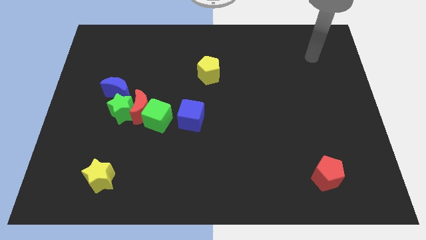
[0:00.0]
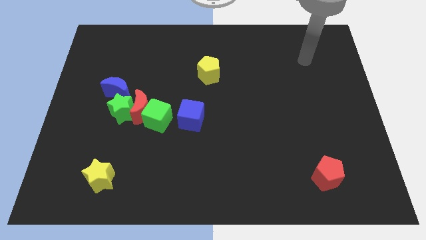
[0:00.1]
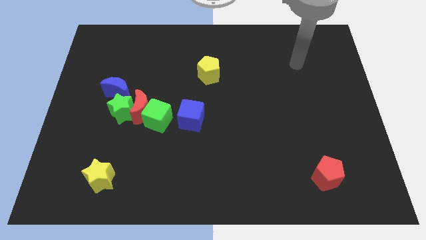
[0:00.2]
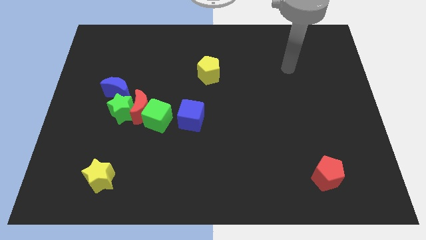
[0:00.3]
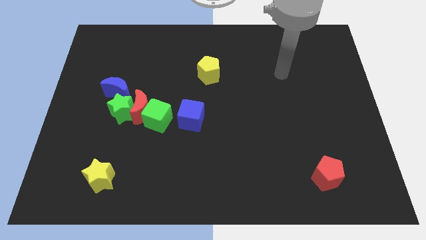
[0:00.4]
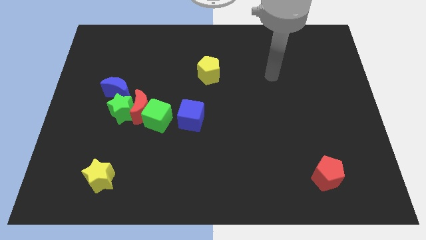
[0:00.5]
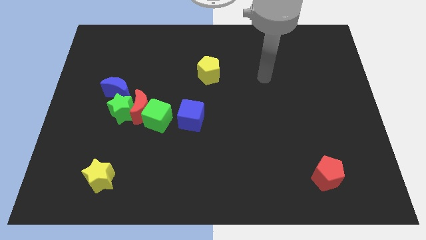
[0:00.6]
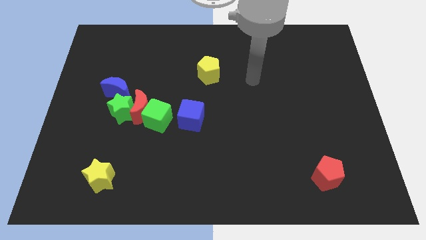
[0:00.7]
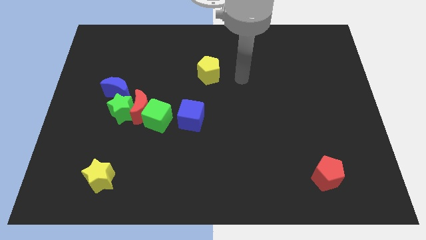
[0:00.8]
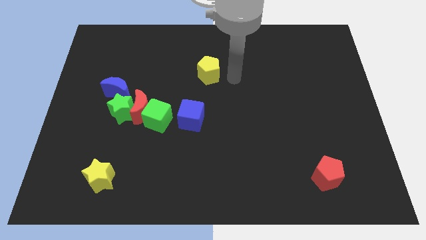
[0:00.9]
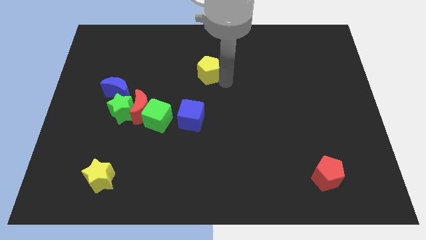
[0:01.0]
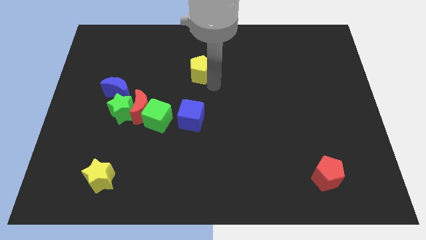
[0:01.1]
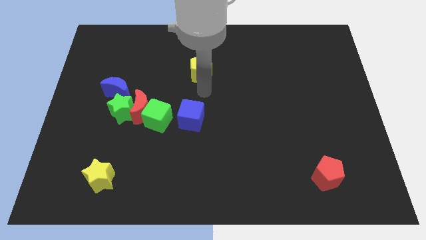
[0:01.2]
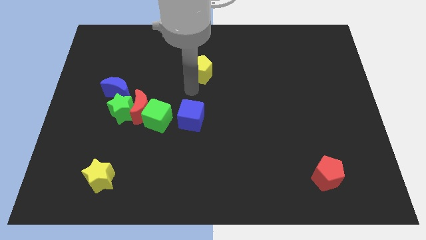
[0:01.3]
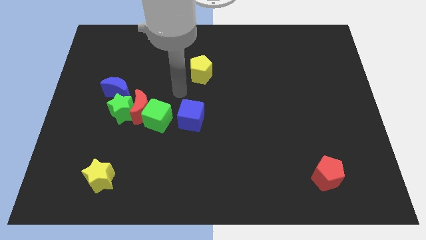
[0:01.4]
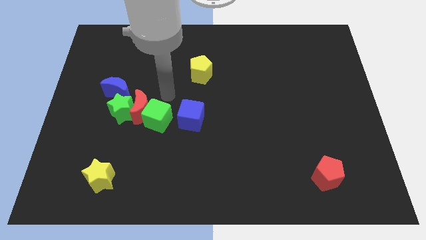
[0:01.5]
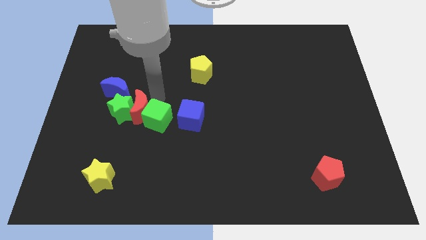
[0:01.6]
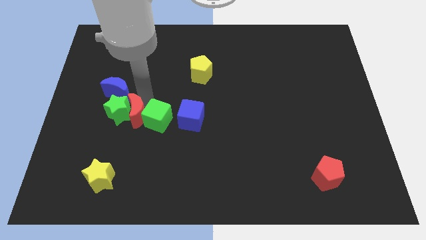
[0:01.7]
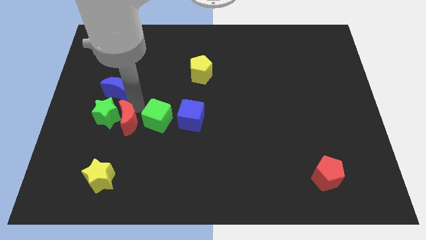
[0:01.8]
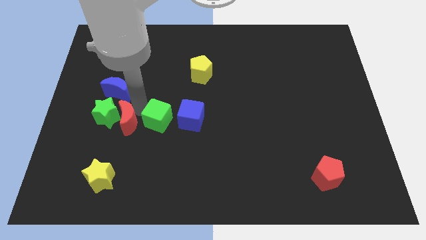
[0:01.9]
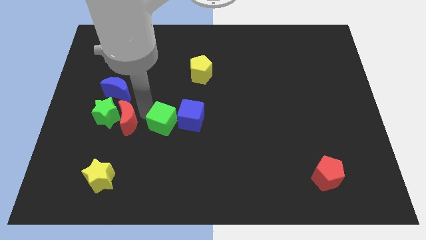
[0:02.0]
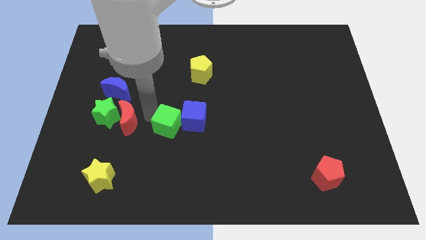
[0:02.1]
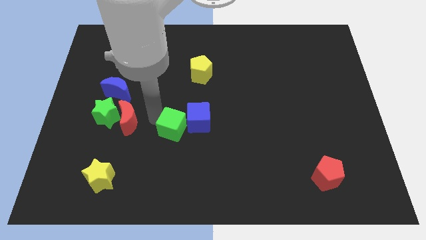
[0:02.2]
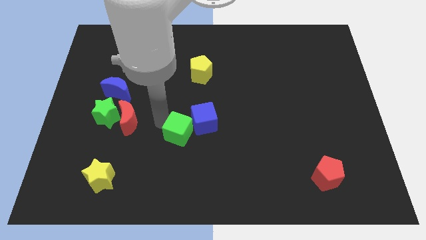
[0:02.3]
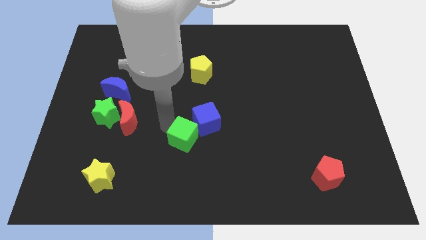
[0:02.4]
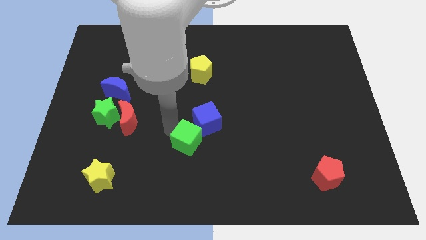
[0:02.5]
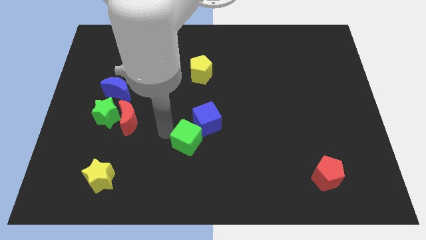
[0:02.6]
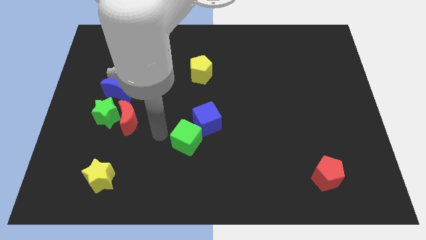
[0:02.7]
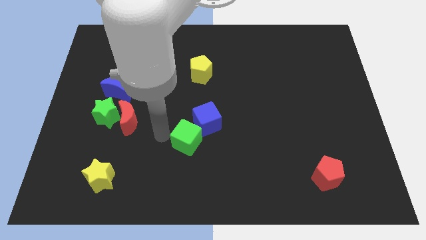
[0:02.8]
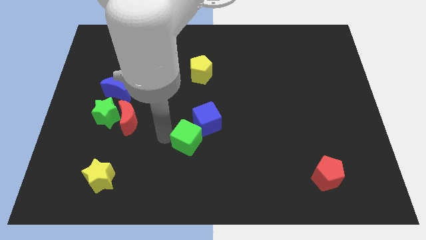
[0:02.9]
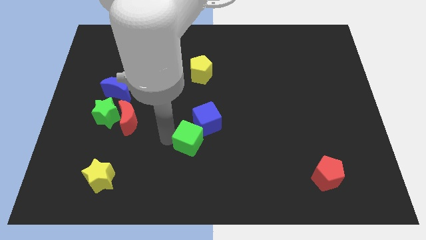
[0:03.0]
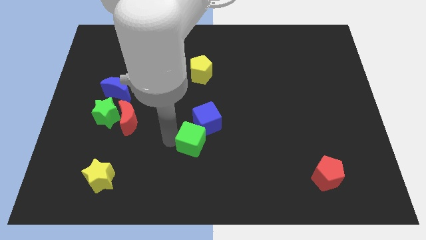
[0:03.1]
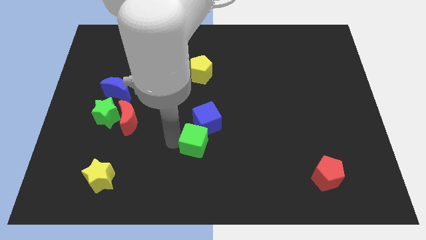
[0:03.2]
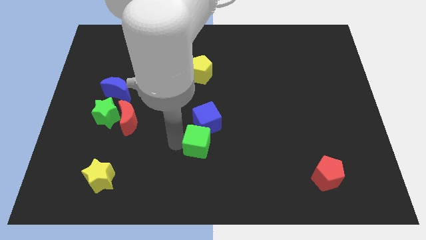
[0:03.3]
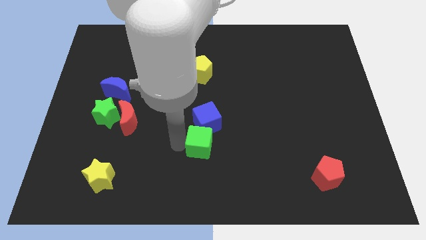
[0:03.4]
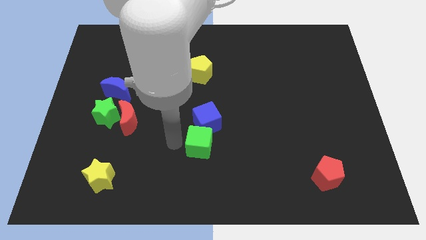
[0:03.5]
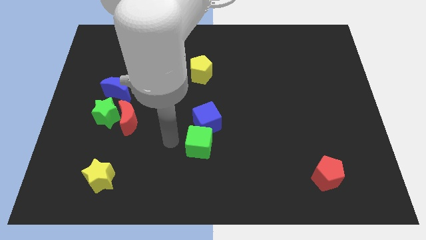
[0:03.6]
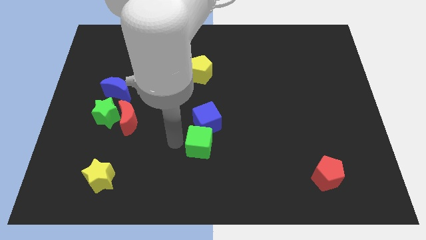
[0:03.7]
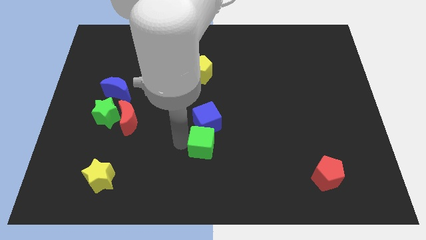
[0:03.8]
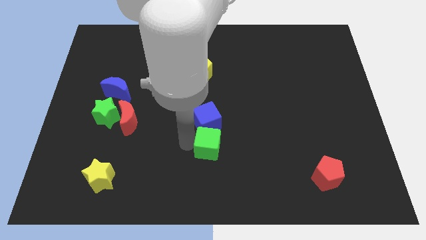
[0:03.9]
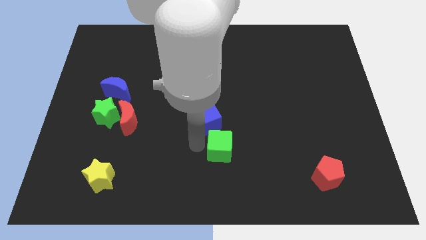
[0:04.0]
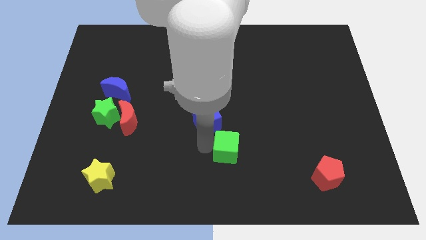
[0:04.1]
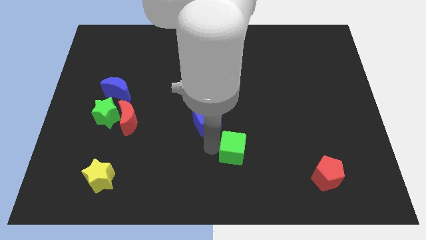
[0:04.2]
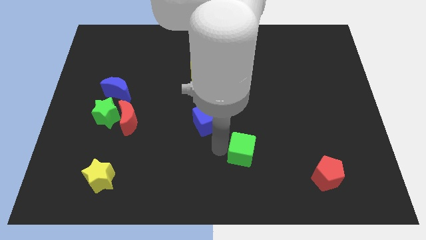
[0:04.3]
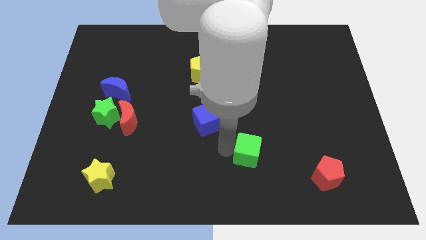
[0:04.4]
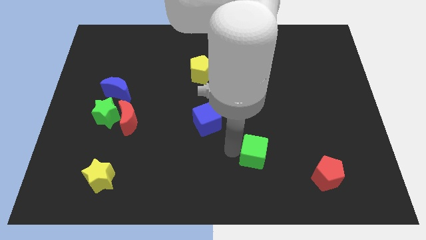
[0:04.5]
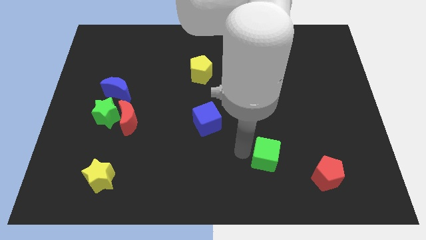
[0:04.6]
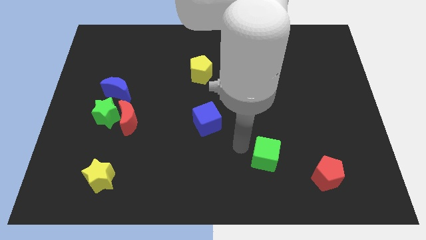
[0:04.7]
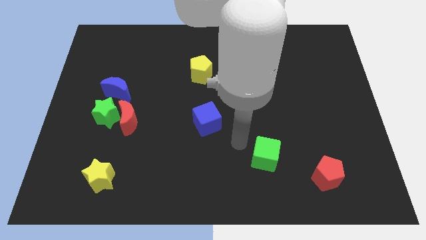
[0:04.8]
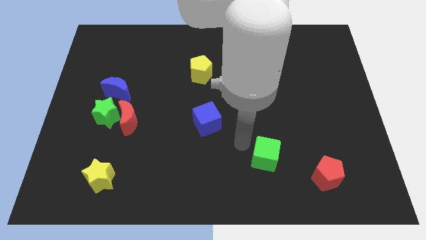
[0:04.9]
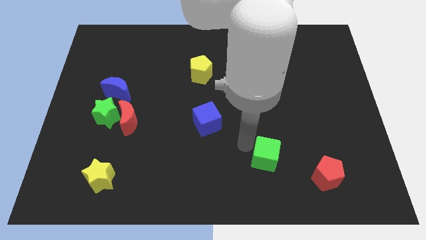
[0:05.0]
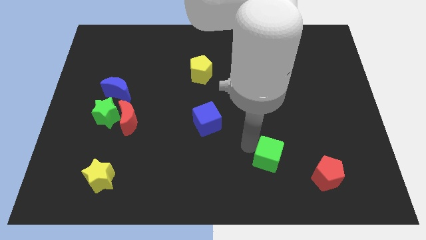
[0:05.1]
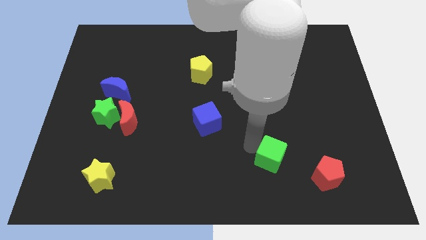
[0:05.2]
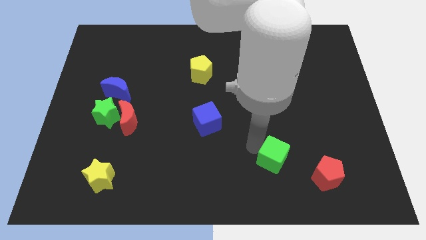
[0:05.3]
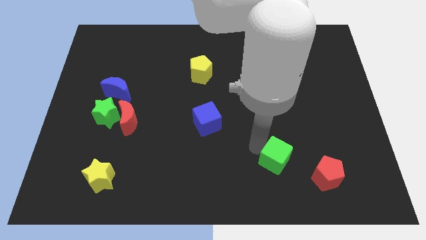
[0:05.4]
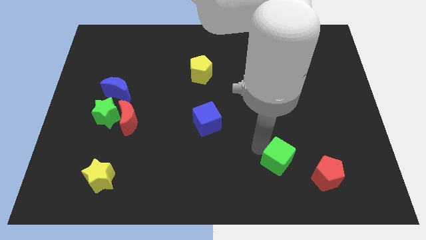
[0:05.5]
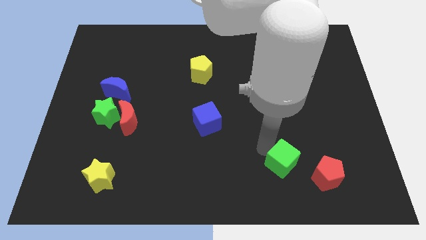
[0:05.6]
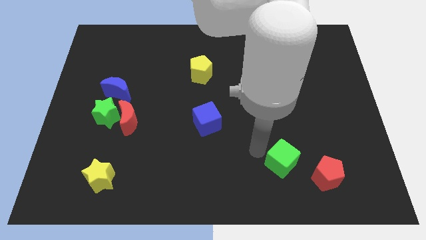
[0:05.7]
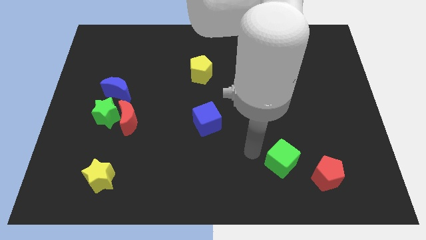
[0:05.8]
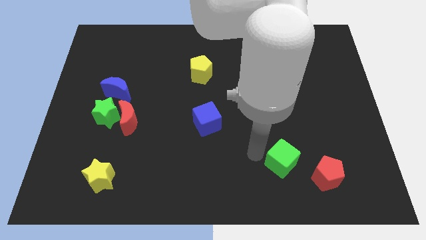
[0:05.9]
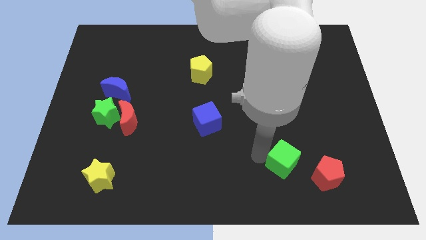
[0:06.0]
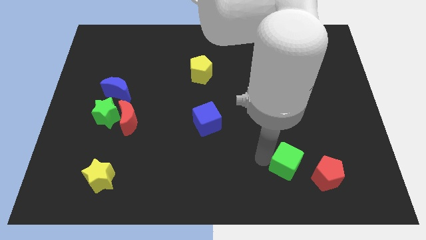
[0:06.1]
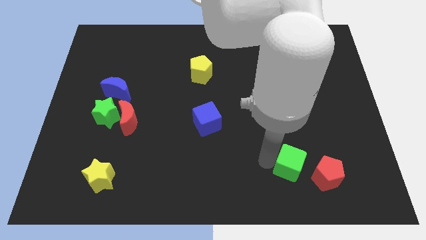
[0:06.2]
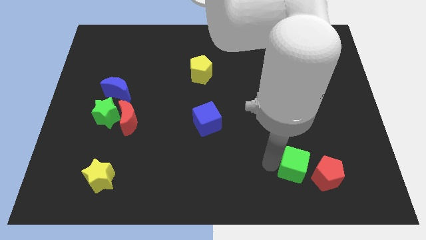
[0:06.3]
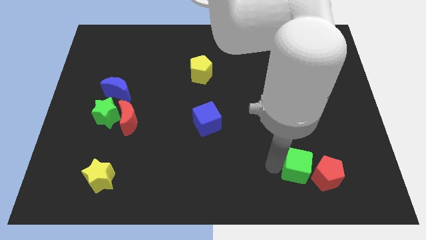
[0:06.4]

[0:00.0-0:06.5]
put the green cube close to the red pentagon
